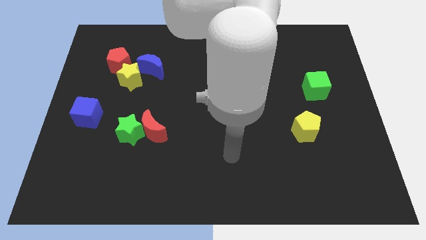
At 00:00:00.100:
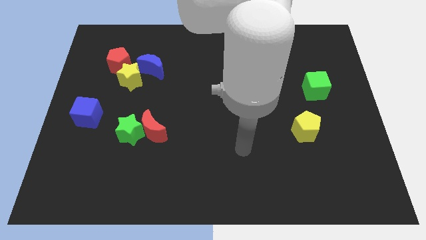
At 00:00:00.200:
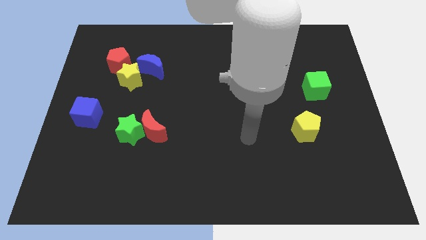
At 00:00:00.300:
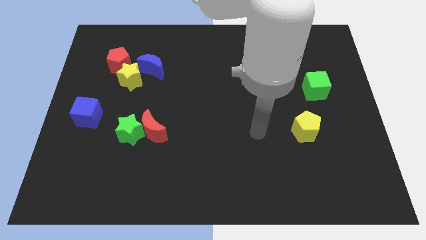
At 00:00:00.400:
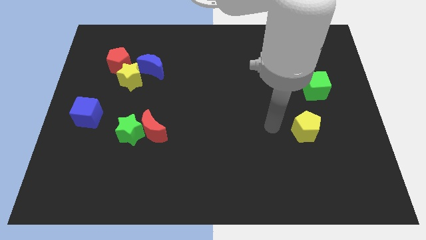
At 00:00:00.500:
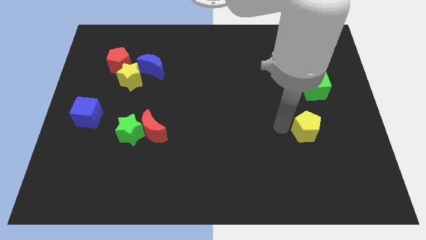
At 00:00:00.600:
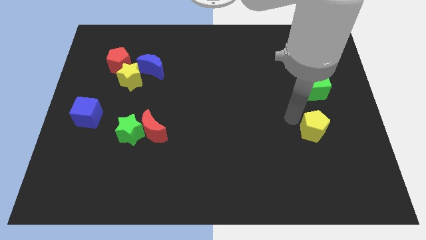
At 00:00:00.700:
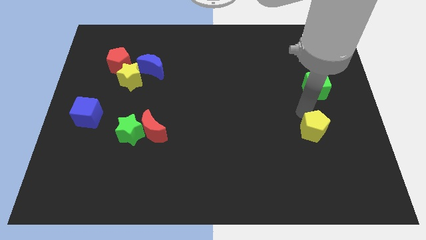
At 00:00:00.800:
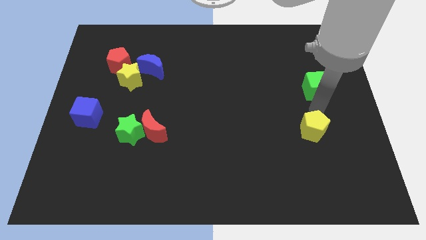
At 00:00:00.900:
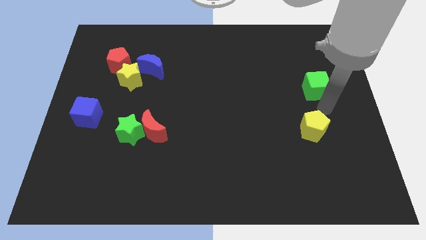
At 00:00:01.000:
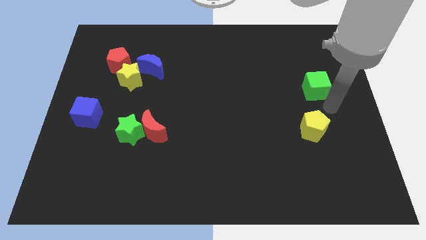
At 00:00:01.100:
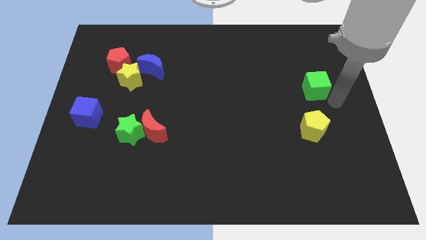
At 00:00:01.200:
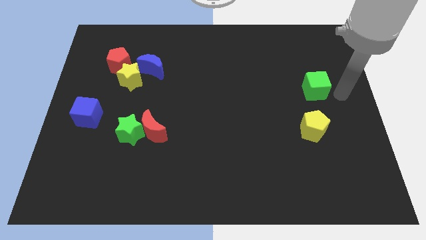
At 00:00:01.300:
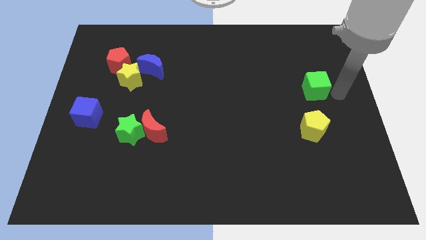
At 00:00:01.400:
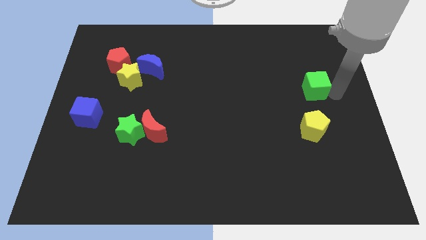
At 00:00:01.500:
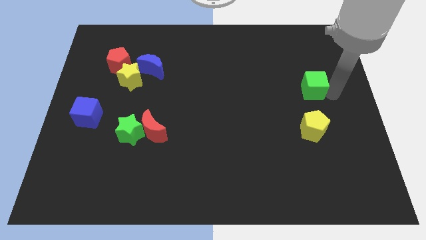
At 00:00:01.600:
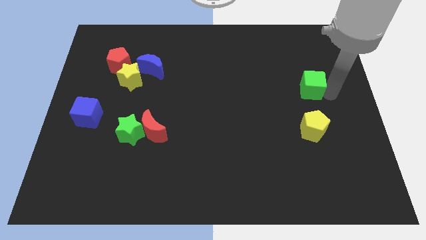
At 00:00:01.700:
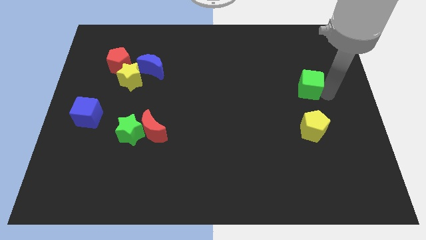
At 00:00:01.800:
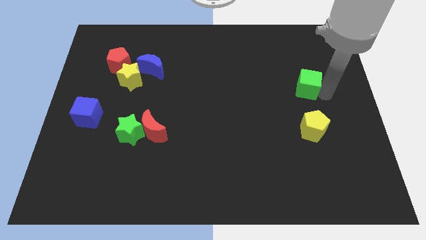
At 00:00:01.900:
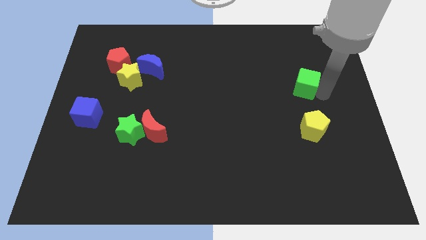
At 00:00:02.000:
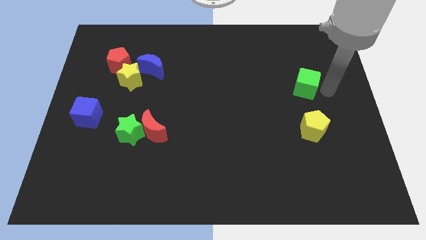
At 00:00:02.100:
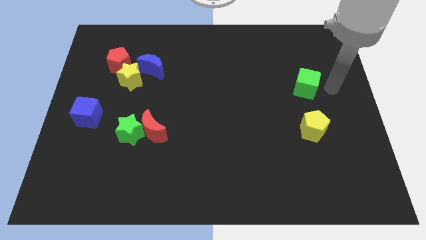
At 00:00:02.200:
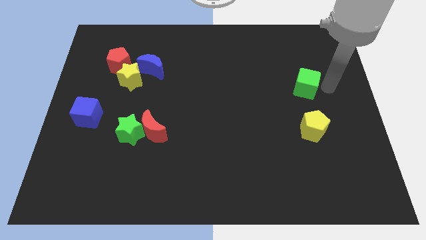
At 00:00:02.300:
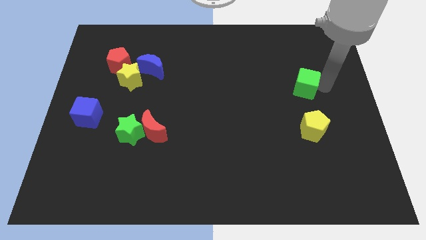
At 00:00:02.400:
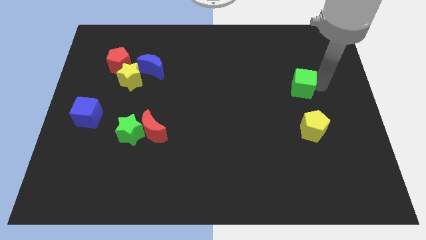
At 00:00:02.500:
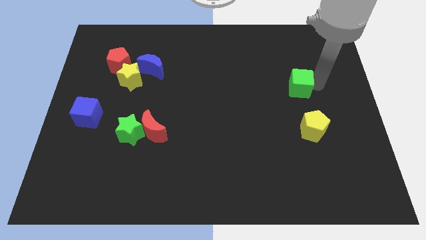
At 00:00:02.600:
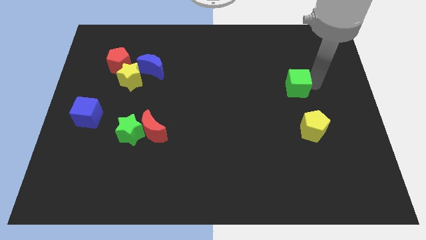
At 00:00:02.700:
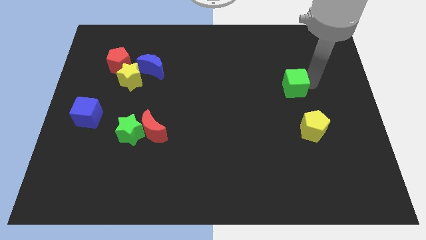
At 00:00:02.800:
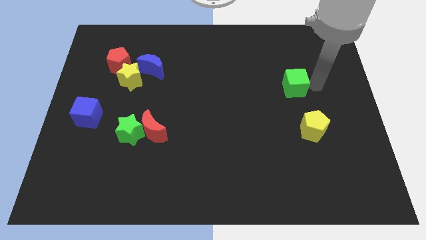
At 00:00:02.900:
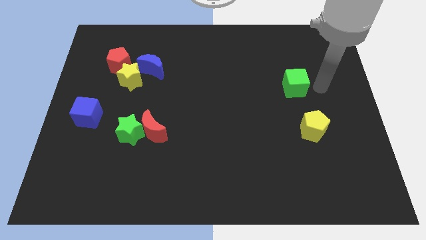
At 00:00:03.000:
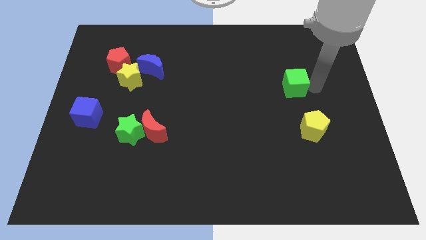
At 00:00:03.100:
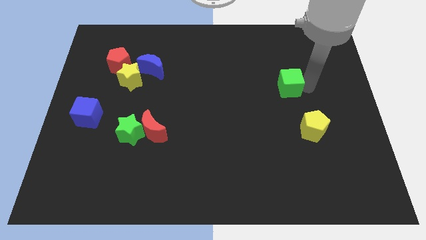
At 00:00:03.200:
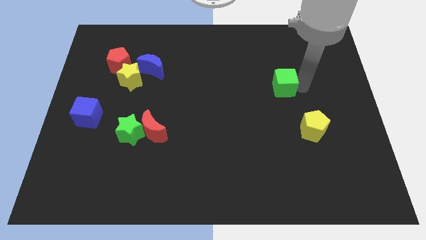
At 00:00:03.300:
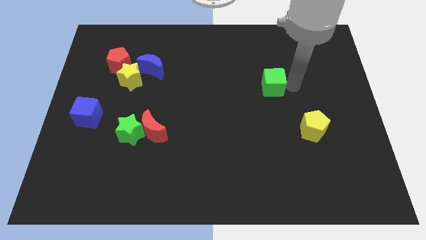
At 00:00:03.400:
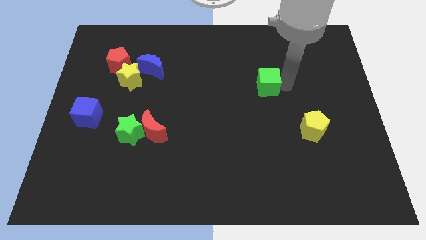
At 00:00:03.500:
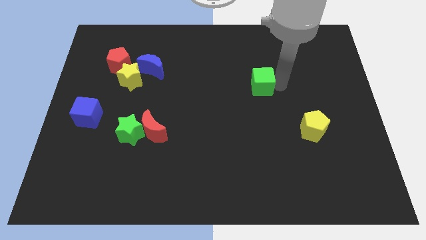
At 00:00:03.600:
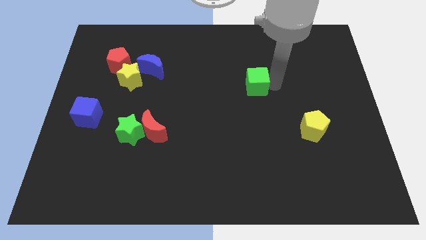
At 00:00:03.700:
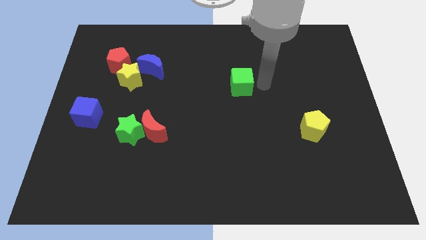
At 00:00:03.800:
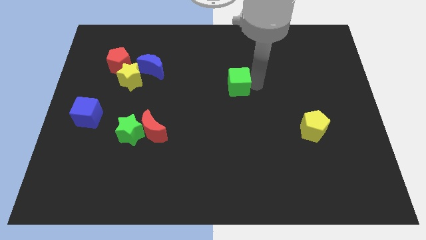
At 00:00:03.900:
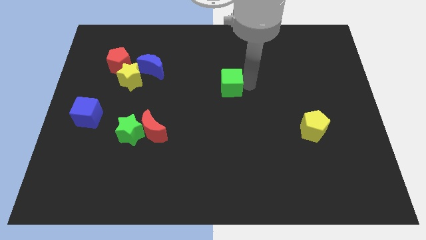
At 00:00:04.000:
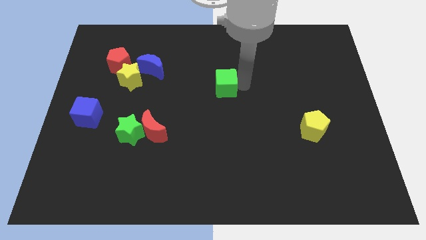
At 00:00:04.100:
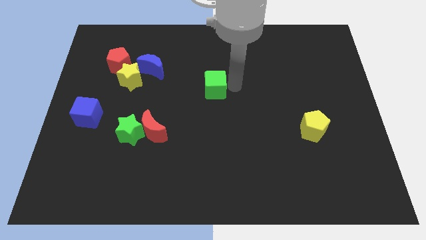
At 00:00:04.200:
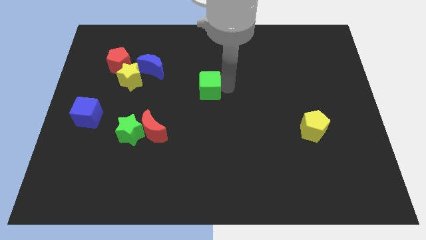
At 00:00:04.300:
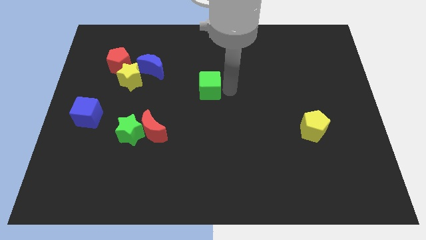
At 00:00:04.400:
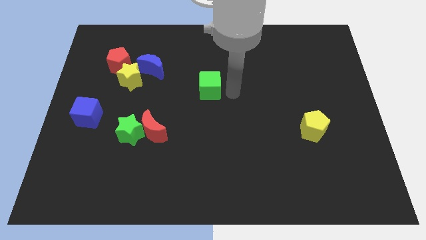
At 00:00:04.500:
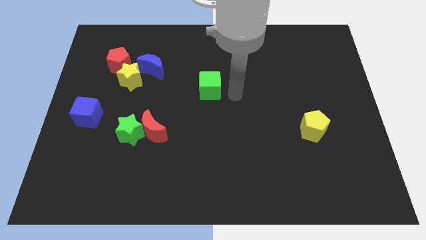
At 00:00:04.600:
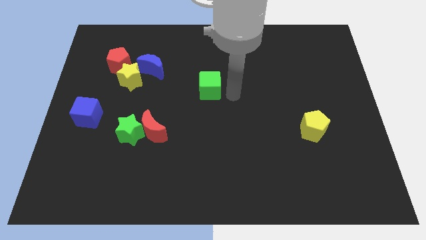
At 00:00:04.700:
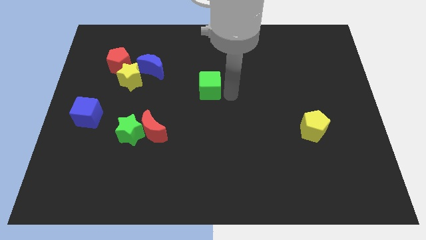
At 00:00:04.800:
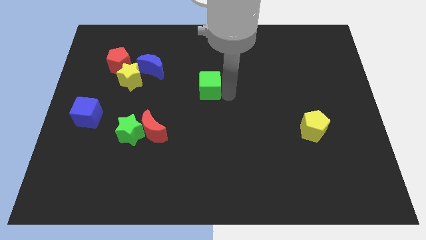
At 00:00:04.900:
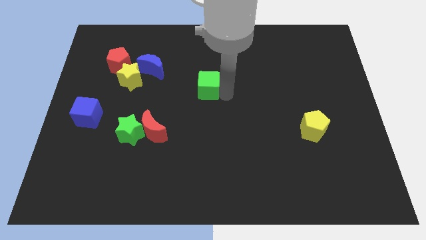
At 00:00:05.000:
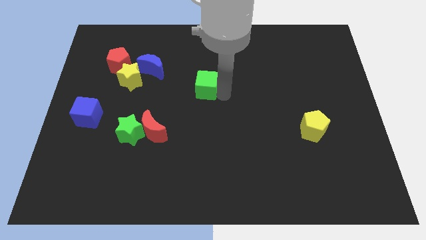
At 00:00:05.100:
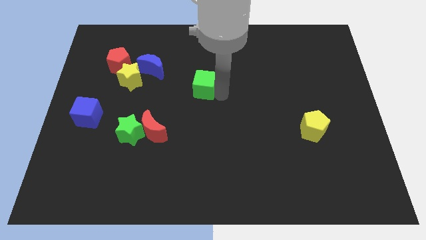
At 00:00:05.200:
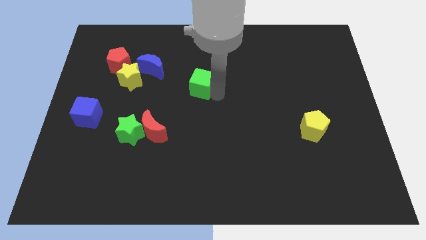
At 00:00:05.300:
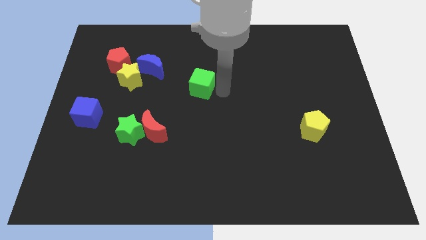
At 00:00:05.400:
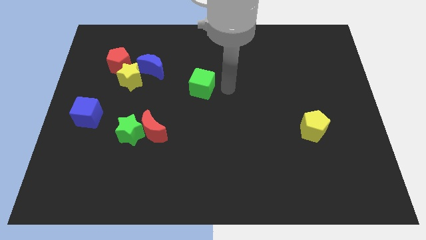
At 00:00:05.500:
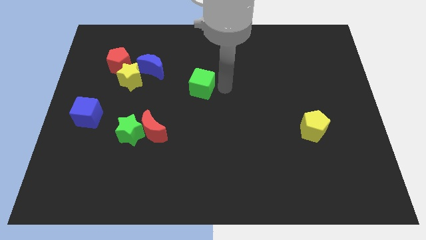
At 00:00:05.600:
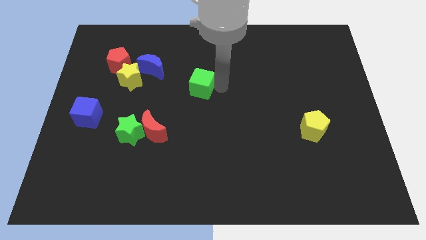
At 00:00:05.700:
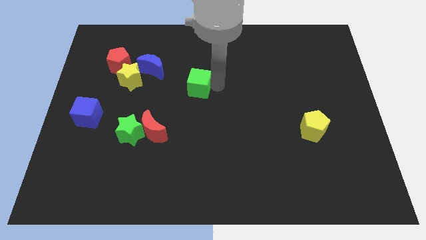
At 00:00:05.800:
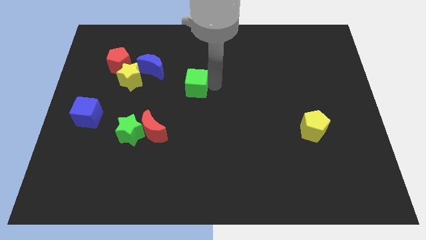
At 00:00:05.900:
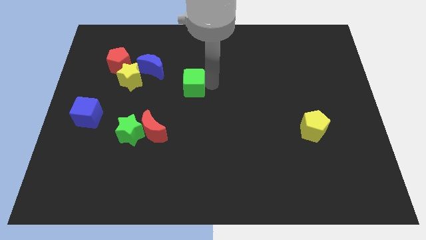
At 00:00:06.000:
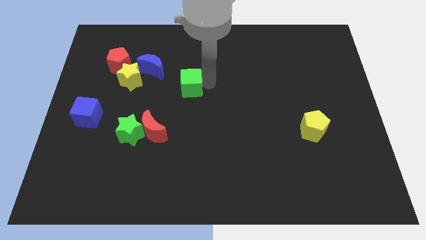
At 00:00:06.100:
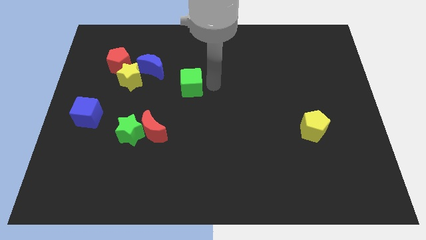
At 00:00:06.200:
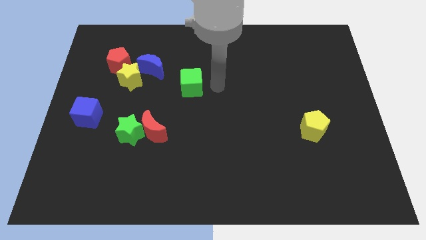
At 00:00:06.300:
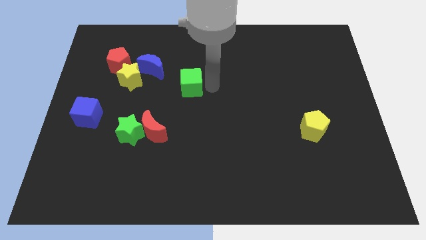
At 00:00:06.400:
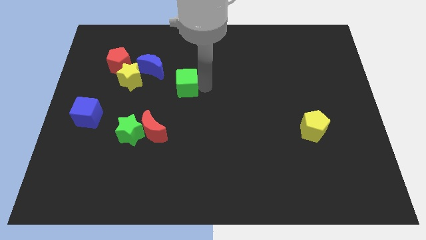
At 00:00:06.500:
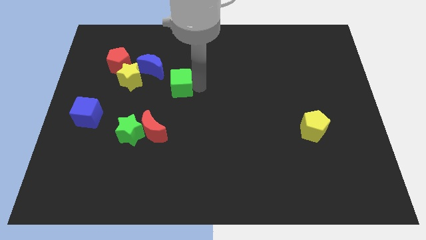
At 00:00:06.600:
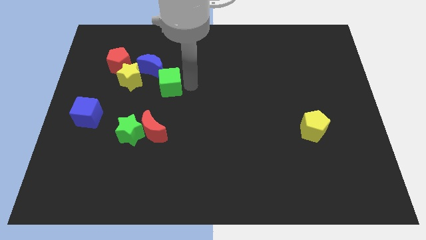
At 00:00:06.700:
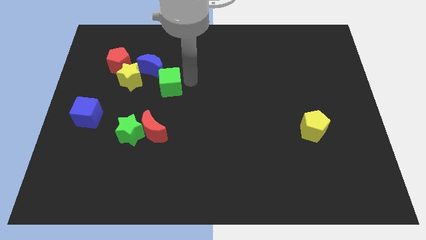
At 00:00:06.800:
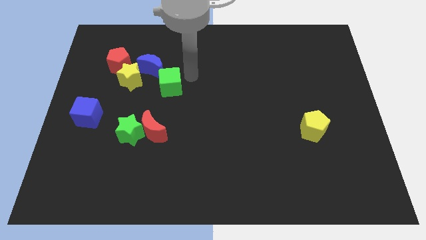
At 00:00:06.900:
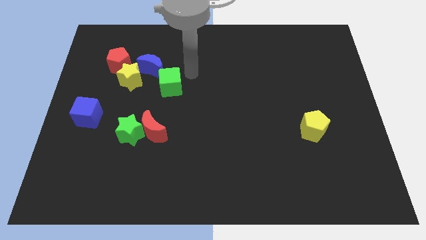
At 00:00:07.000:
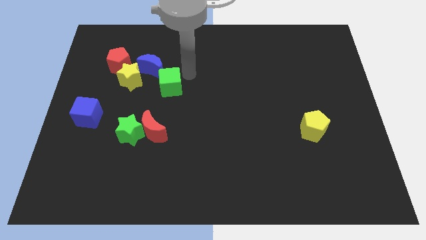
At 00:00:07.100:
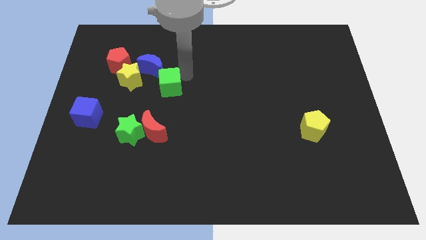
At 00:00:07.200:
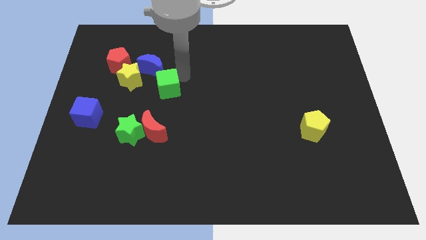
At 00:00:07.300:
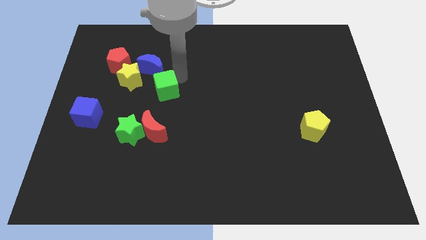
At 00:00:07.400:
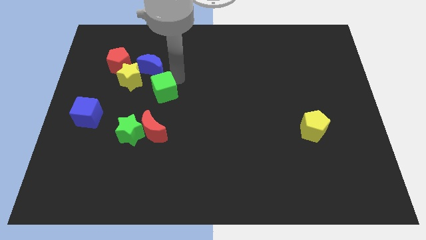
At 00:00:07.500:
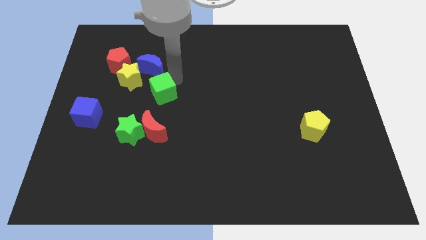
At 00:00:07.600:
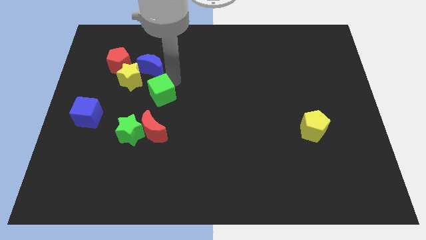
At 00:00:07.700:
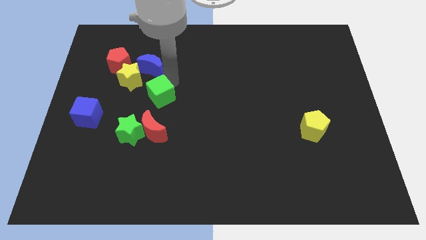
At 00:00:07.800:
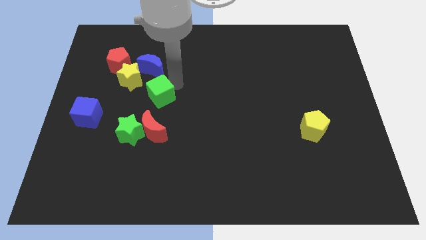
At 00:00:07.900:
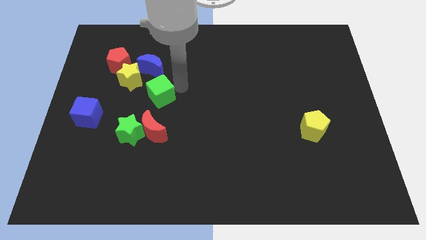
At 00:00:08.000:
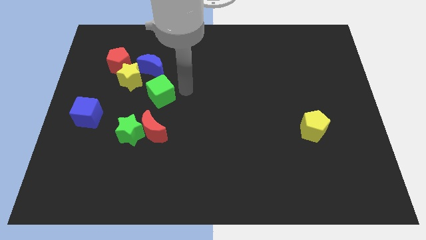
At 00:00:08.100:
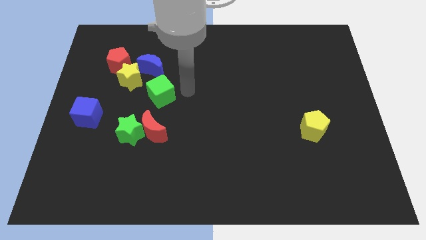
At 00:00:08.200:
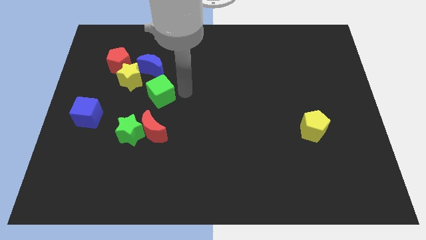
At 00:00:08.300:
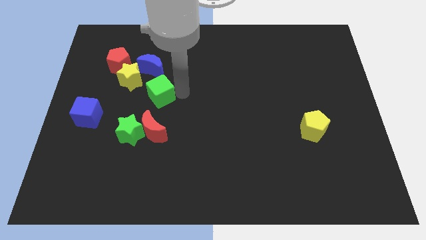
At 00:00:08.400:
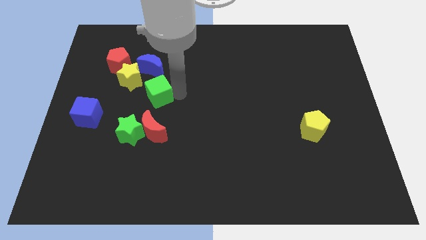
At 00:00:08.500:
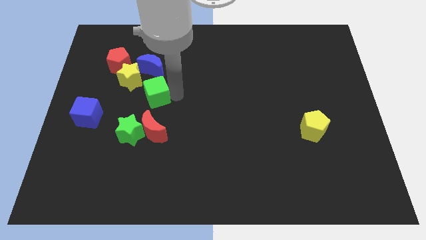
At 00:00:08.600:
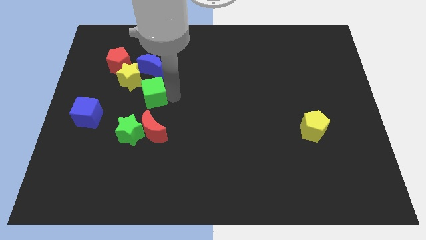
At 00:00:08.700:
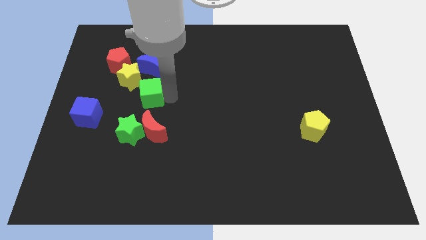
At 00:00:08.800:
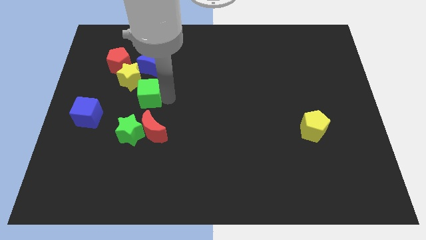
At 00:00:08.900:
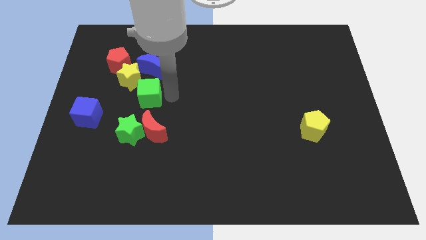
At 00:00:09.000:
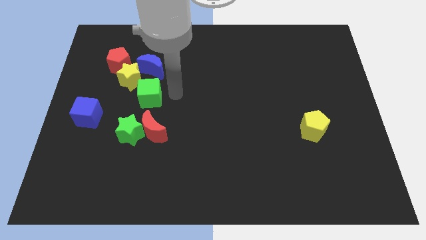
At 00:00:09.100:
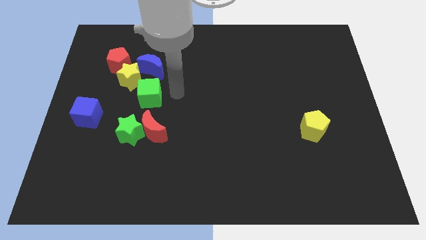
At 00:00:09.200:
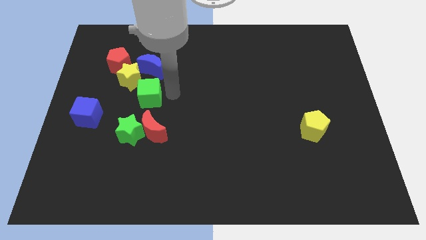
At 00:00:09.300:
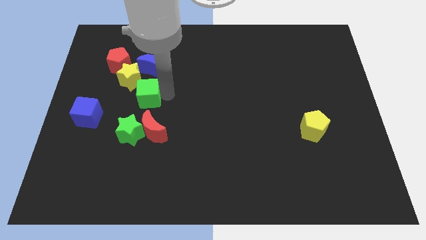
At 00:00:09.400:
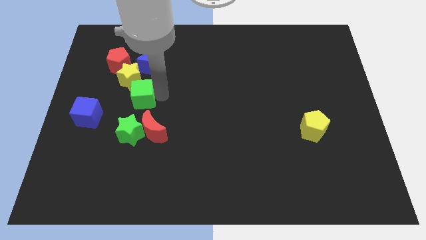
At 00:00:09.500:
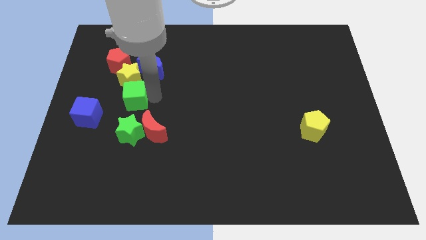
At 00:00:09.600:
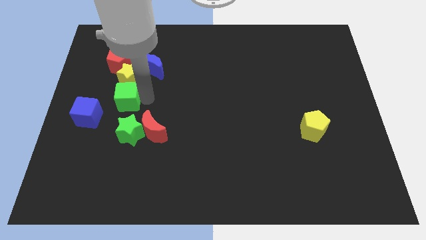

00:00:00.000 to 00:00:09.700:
move the green cube to the bottom side of the red pentagon
